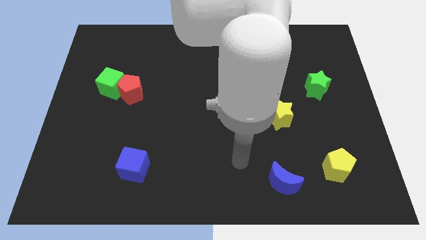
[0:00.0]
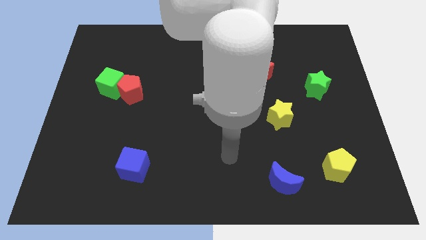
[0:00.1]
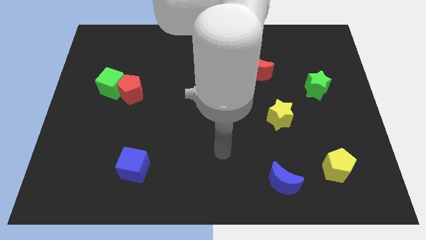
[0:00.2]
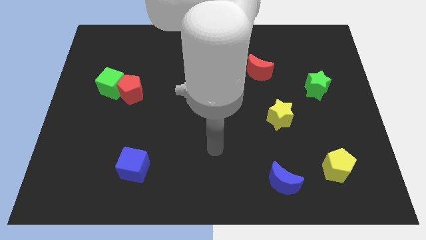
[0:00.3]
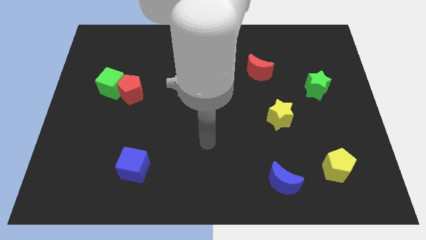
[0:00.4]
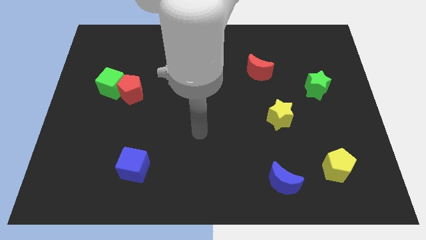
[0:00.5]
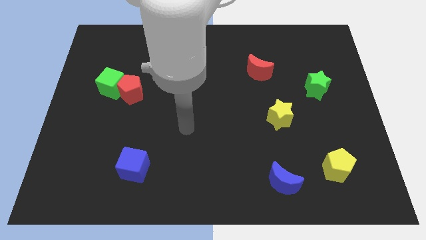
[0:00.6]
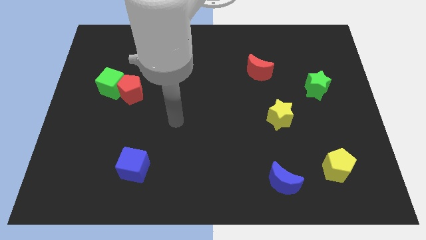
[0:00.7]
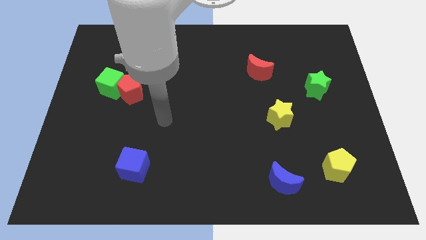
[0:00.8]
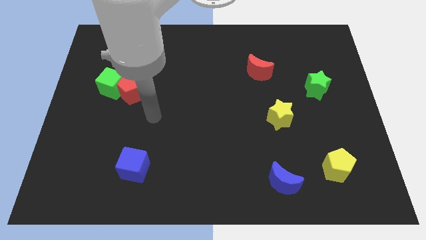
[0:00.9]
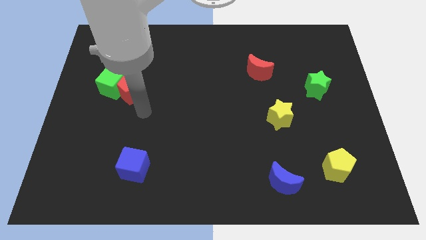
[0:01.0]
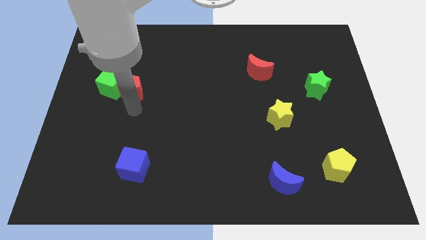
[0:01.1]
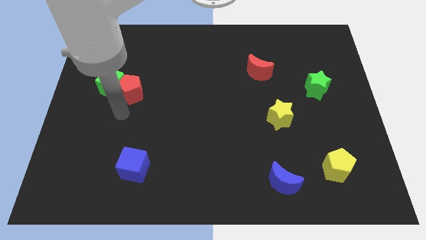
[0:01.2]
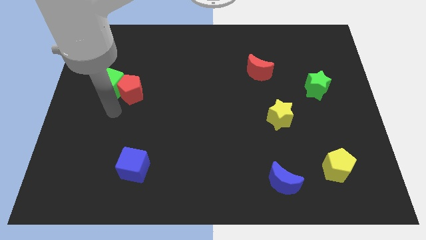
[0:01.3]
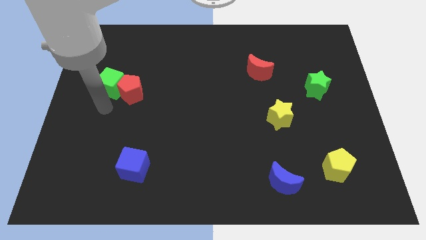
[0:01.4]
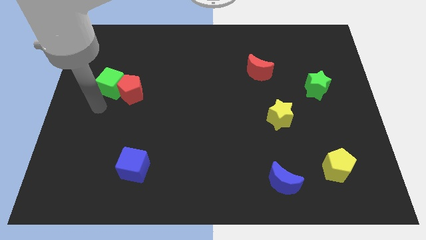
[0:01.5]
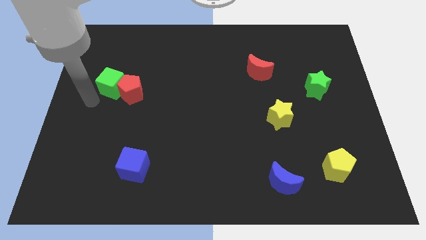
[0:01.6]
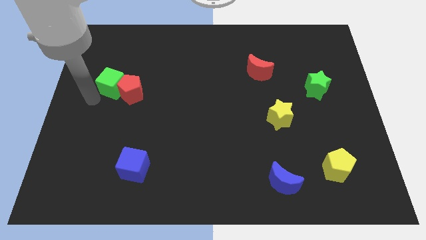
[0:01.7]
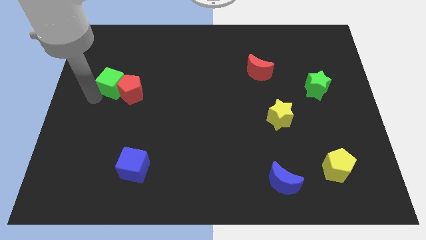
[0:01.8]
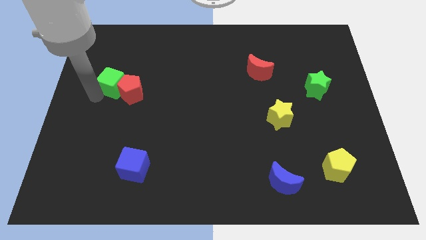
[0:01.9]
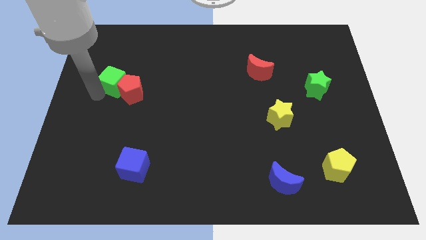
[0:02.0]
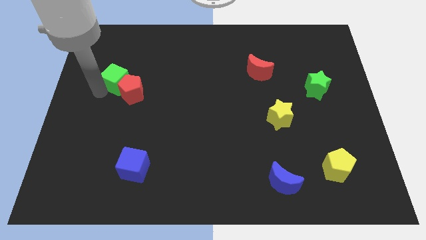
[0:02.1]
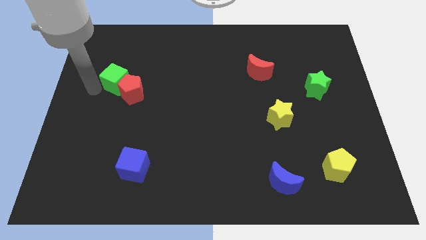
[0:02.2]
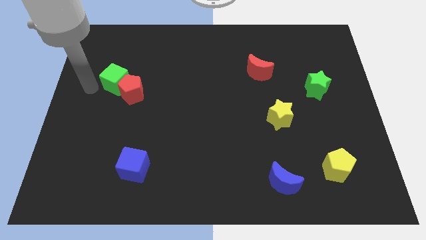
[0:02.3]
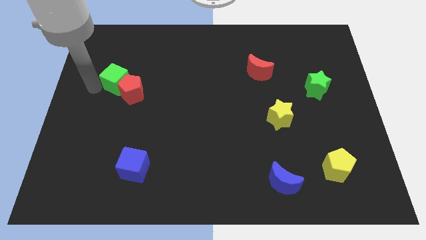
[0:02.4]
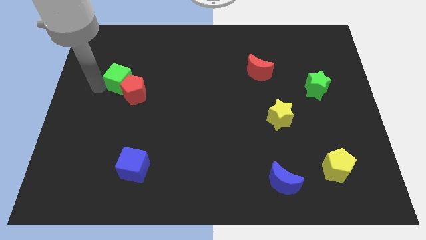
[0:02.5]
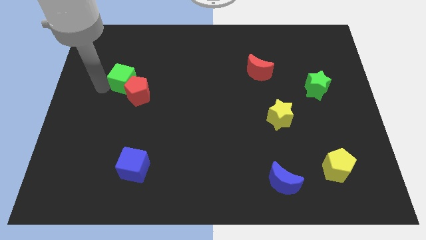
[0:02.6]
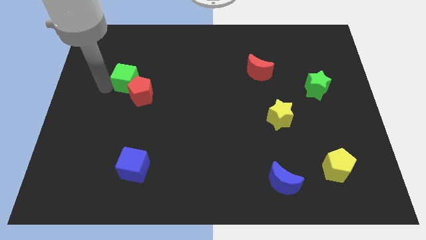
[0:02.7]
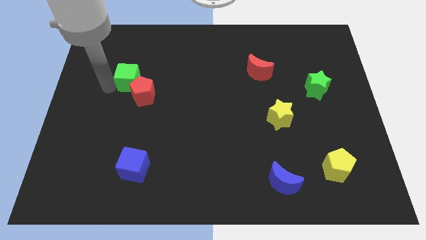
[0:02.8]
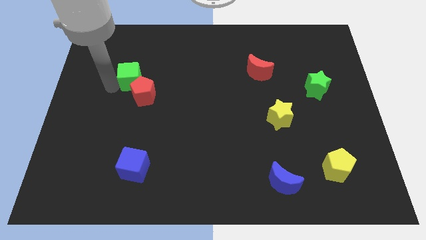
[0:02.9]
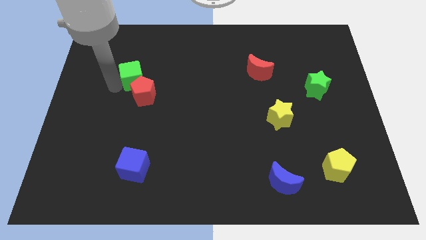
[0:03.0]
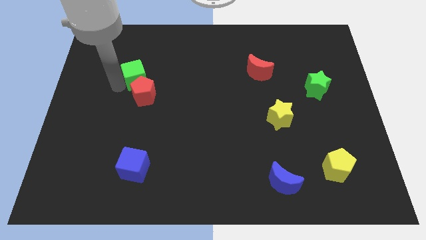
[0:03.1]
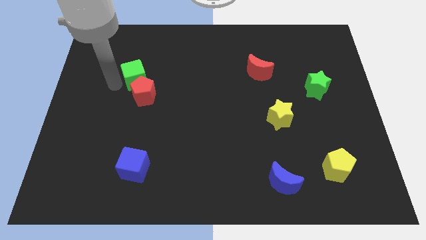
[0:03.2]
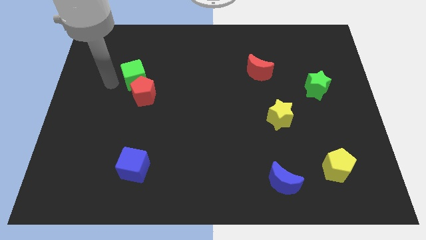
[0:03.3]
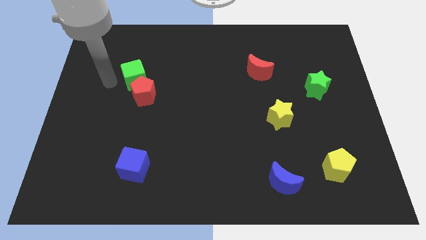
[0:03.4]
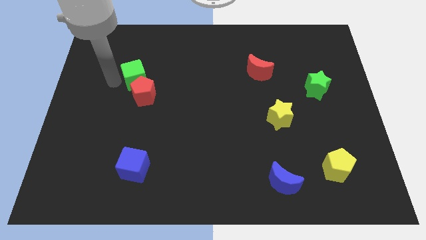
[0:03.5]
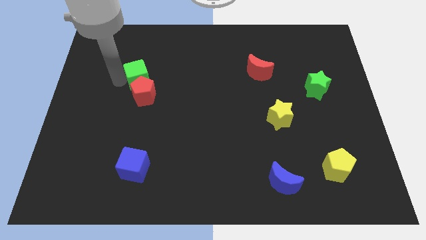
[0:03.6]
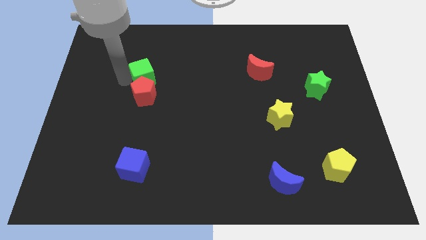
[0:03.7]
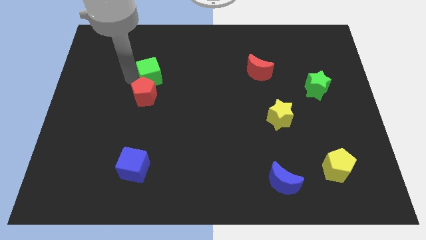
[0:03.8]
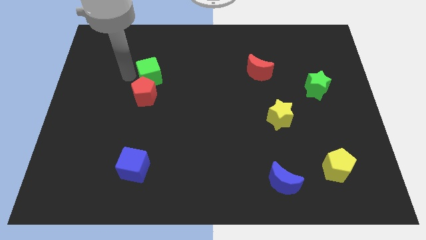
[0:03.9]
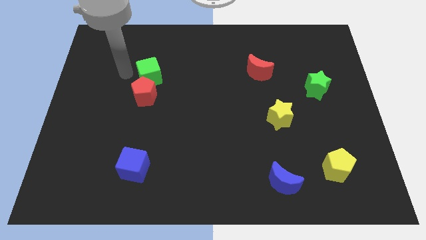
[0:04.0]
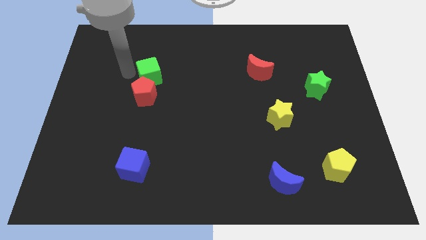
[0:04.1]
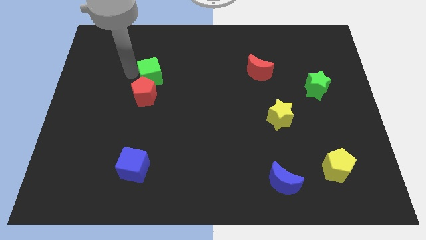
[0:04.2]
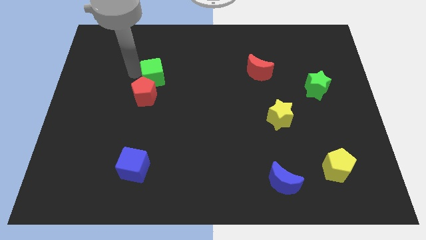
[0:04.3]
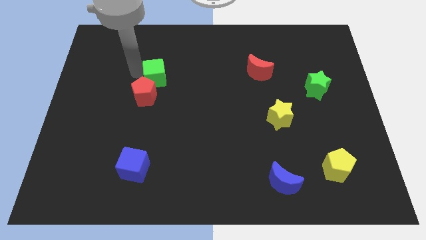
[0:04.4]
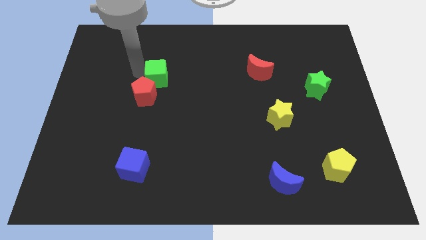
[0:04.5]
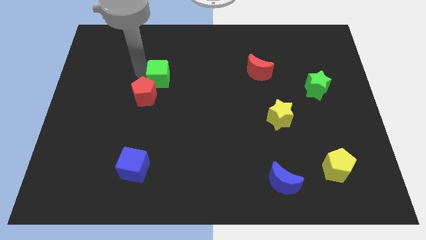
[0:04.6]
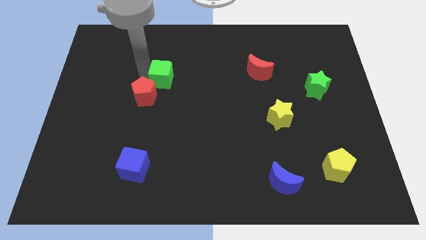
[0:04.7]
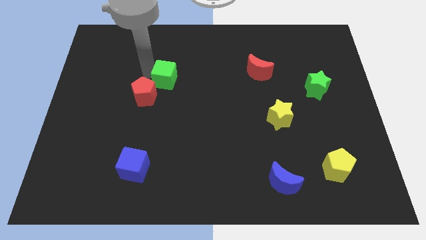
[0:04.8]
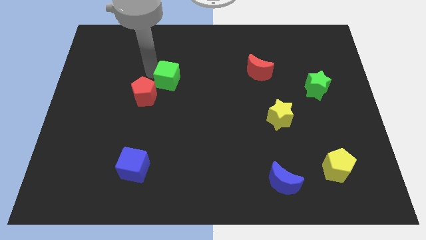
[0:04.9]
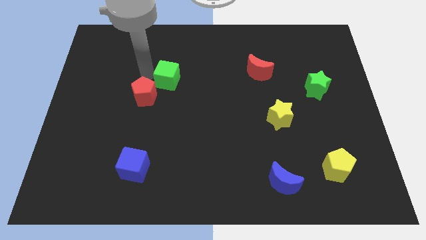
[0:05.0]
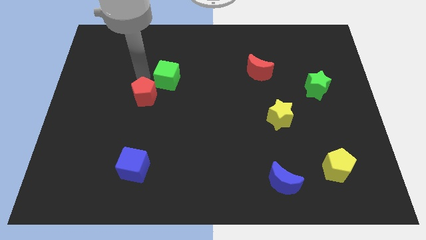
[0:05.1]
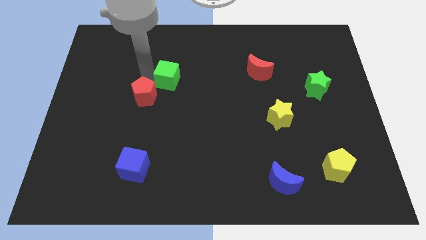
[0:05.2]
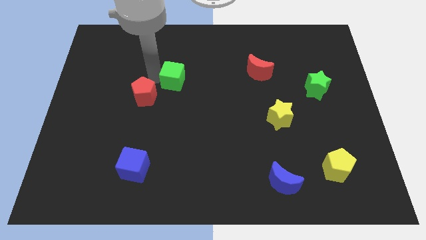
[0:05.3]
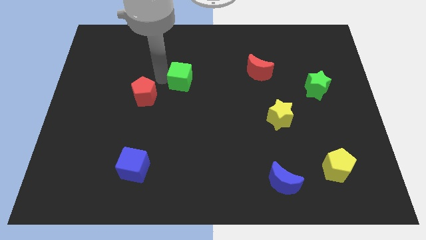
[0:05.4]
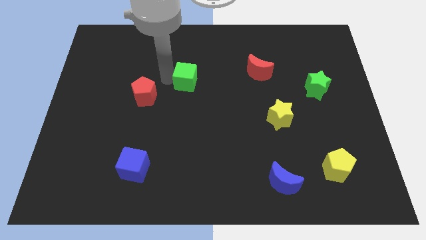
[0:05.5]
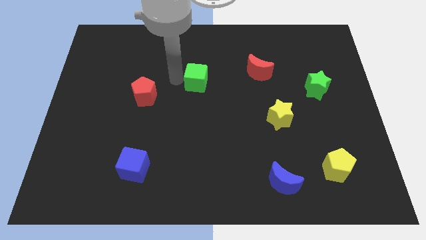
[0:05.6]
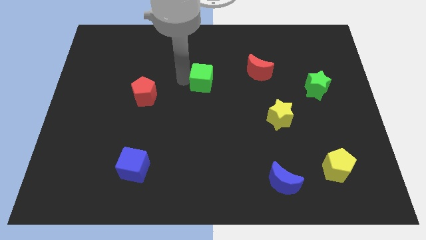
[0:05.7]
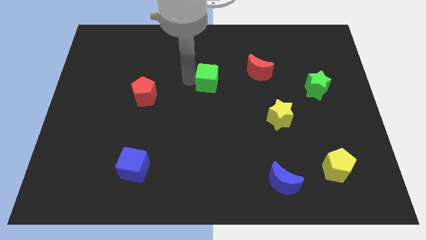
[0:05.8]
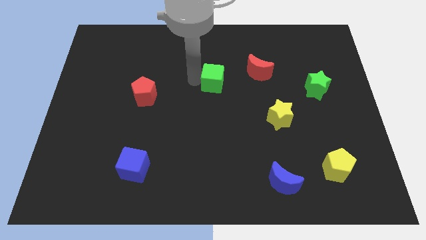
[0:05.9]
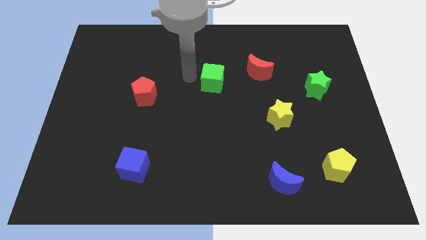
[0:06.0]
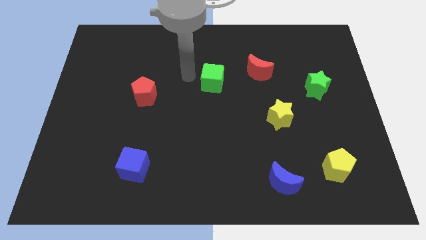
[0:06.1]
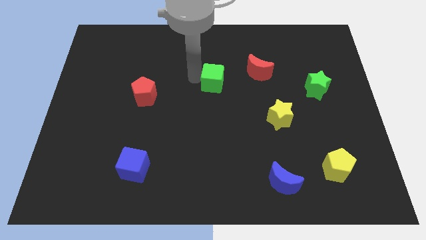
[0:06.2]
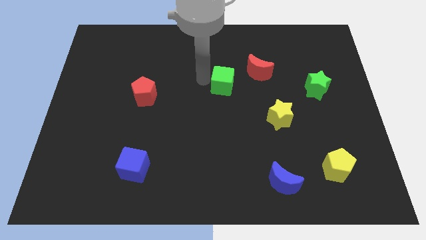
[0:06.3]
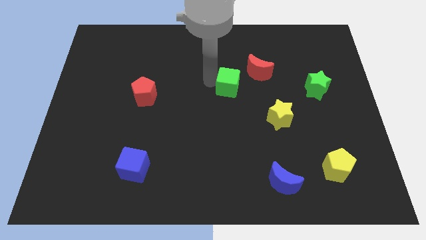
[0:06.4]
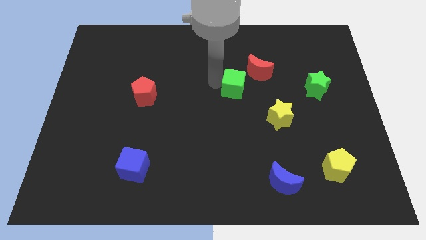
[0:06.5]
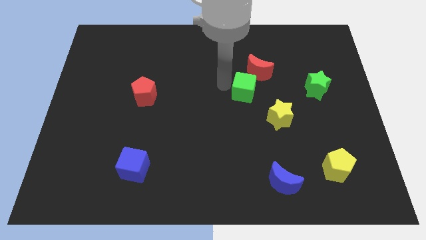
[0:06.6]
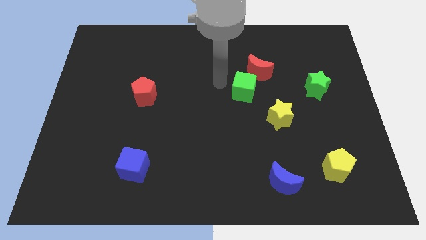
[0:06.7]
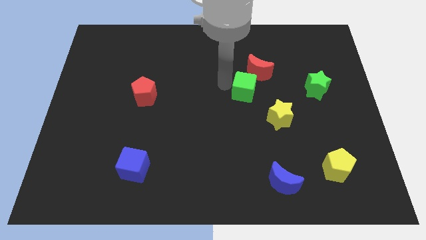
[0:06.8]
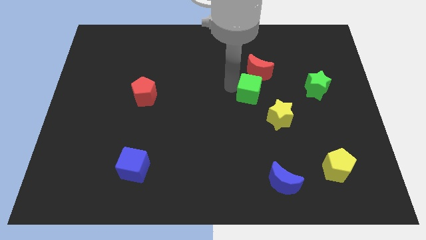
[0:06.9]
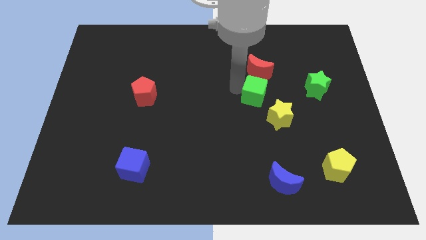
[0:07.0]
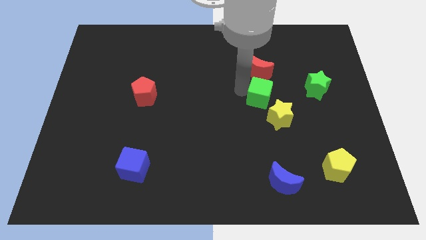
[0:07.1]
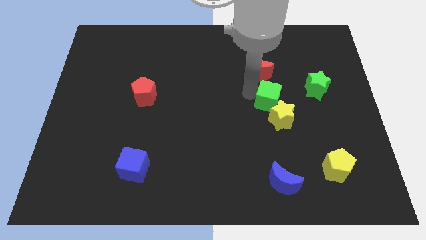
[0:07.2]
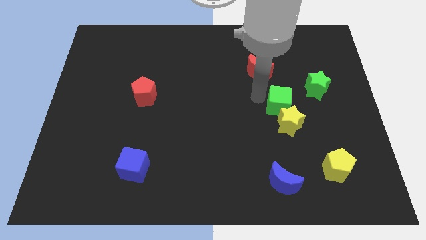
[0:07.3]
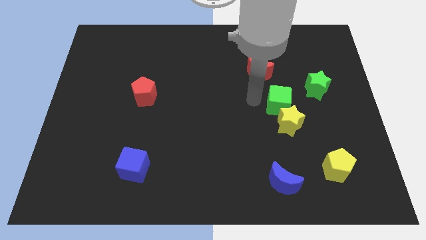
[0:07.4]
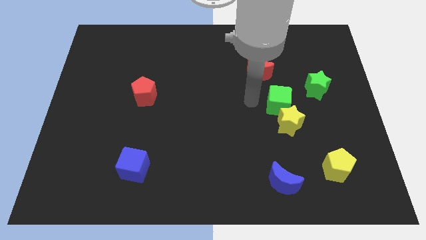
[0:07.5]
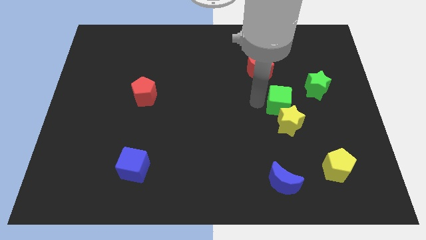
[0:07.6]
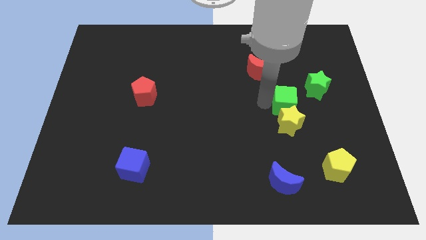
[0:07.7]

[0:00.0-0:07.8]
push the green cube to the top right side of the yellow star
